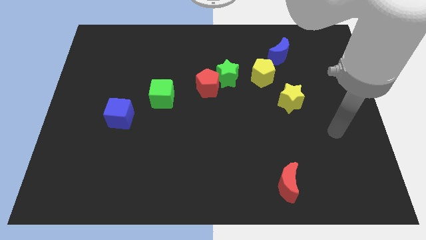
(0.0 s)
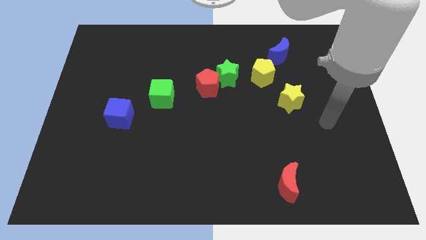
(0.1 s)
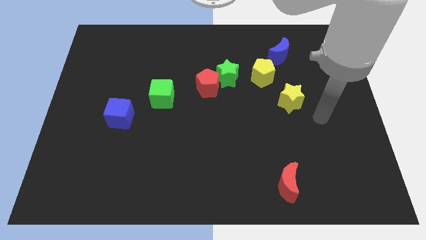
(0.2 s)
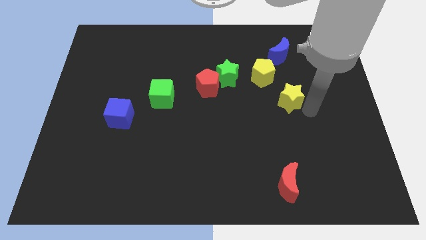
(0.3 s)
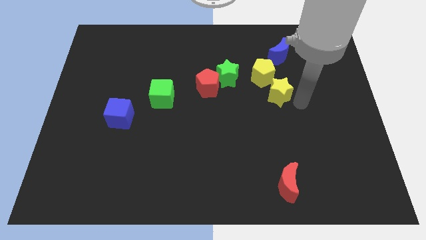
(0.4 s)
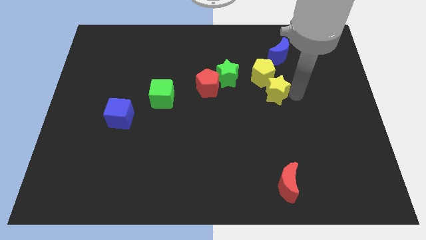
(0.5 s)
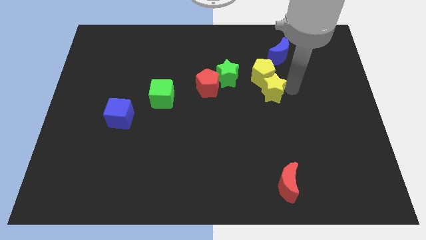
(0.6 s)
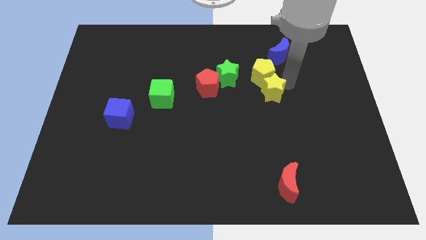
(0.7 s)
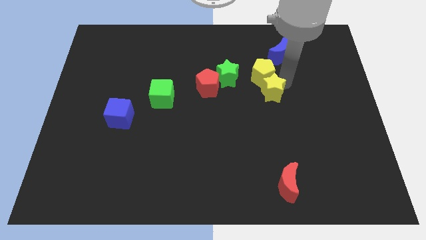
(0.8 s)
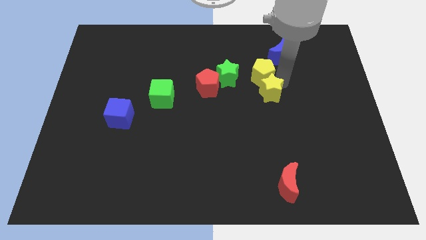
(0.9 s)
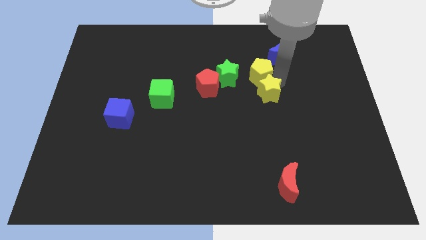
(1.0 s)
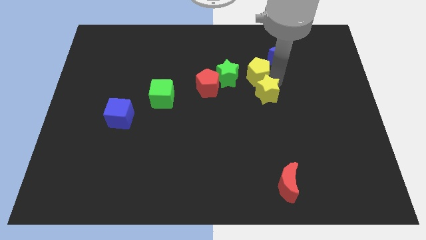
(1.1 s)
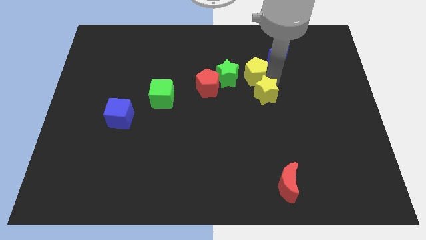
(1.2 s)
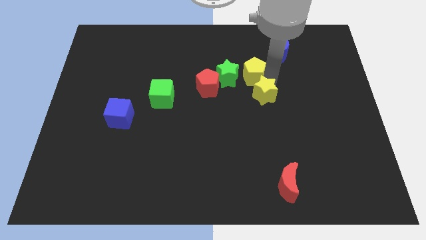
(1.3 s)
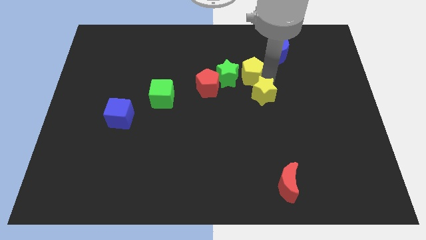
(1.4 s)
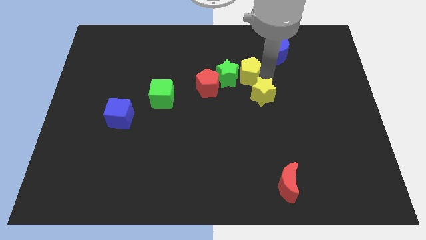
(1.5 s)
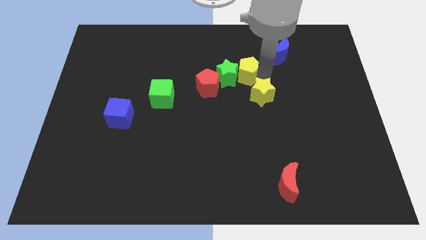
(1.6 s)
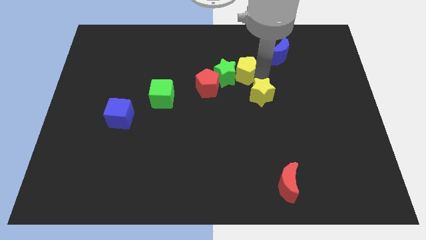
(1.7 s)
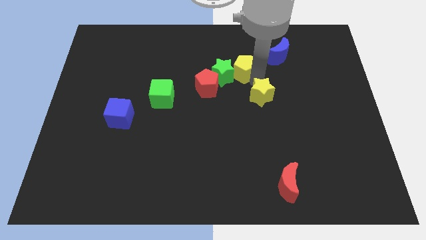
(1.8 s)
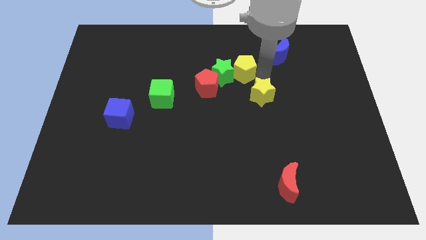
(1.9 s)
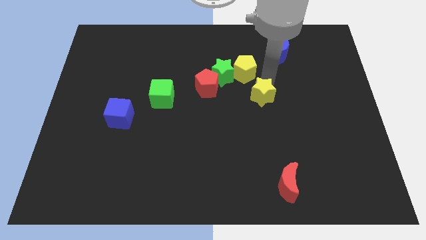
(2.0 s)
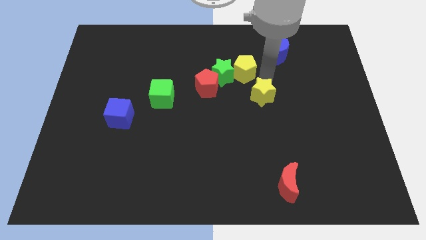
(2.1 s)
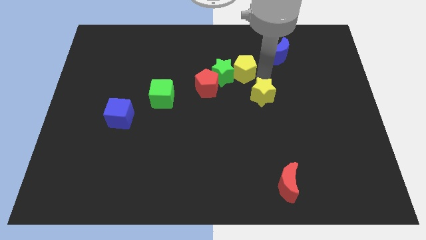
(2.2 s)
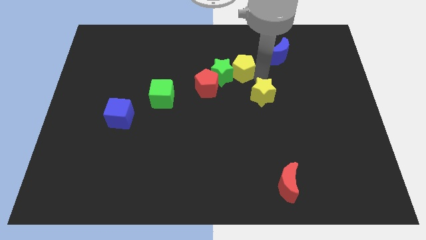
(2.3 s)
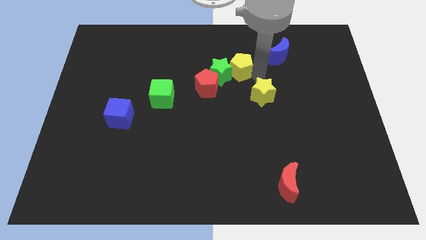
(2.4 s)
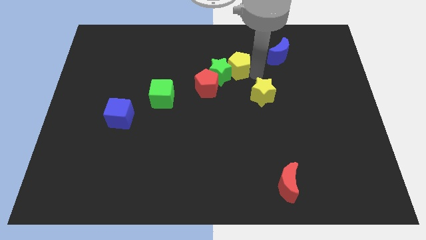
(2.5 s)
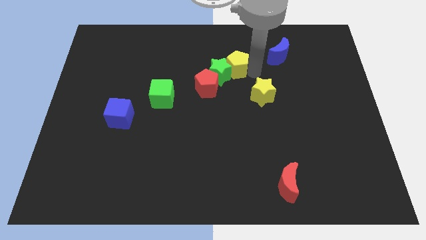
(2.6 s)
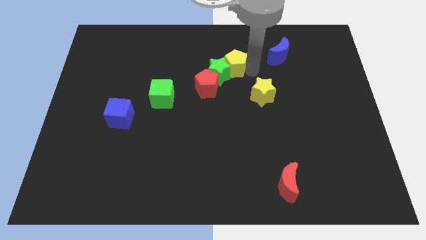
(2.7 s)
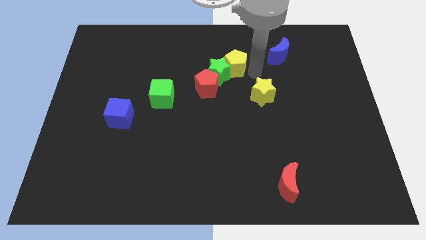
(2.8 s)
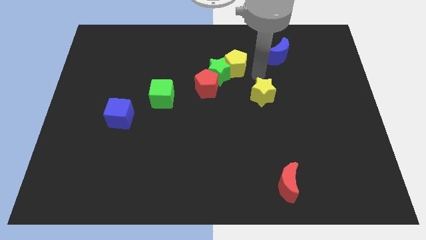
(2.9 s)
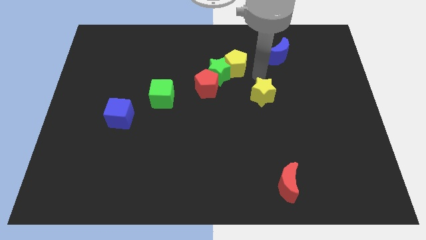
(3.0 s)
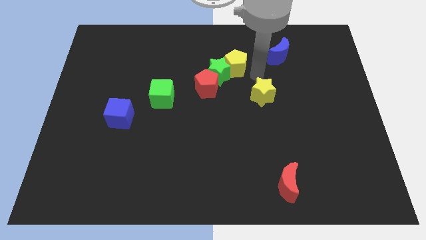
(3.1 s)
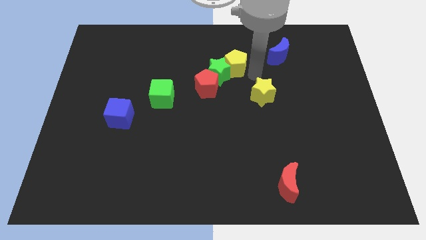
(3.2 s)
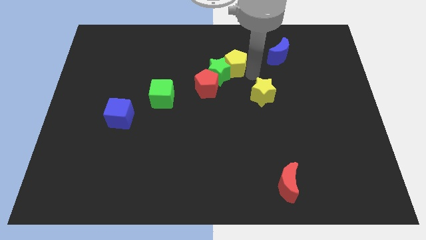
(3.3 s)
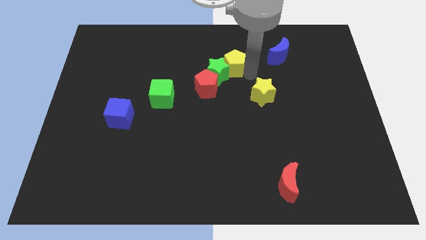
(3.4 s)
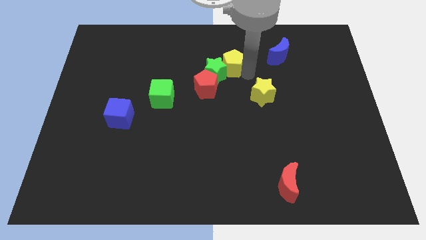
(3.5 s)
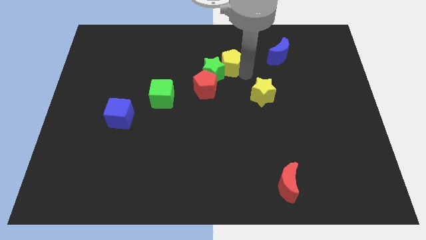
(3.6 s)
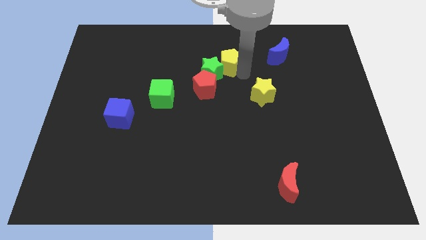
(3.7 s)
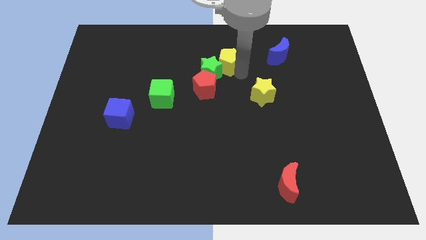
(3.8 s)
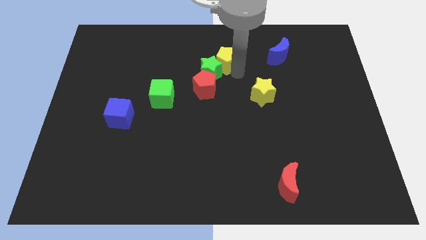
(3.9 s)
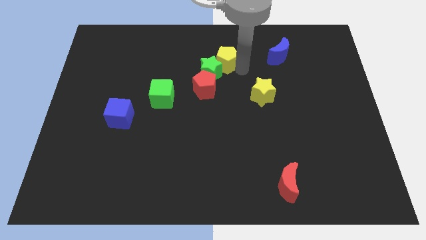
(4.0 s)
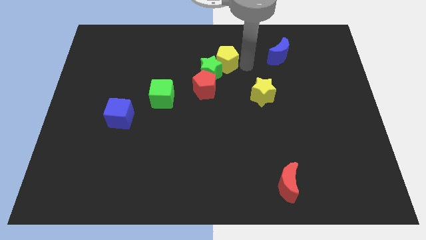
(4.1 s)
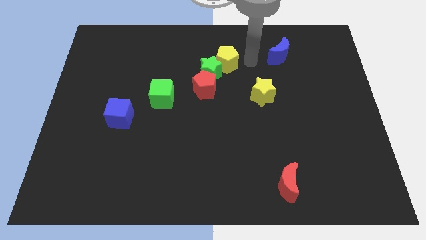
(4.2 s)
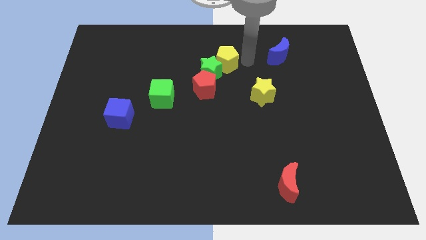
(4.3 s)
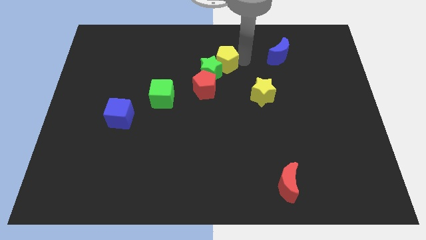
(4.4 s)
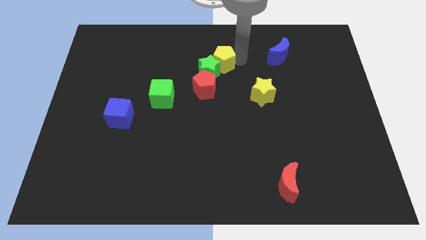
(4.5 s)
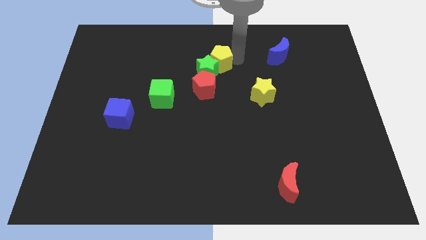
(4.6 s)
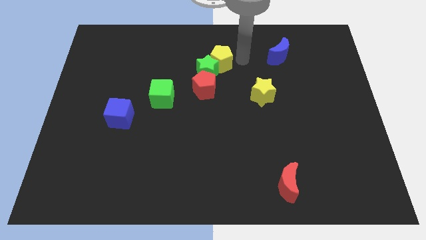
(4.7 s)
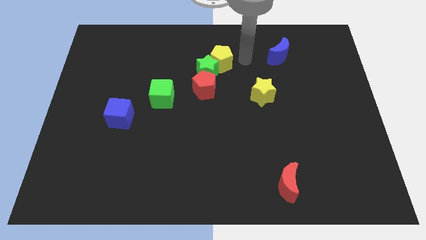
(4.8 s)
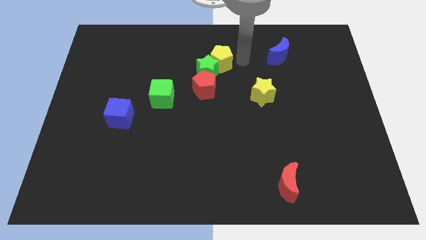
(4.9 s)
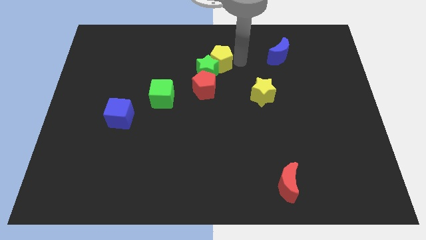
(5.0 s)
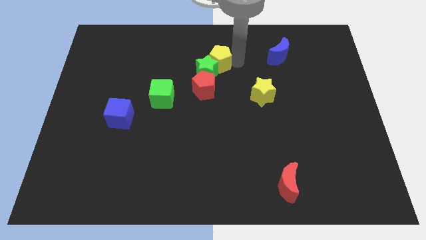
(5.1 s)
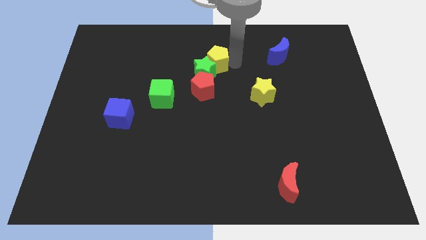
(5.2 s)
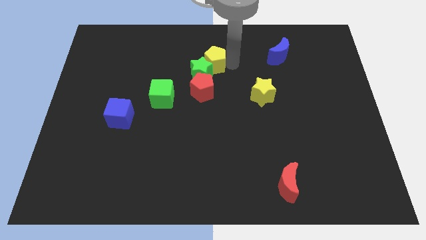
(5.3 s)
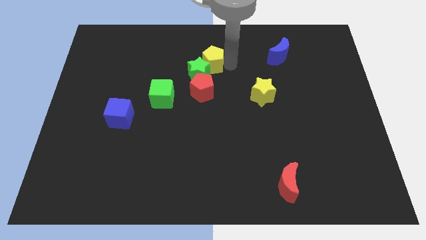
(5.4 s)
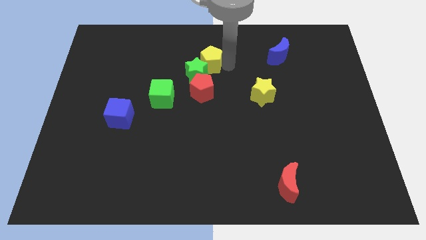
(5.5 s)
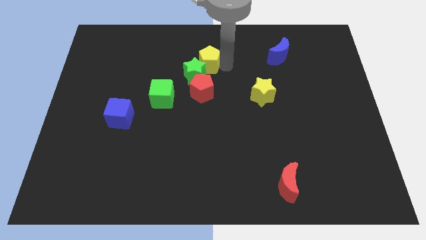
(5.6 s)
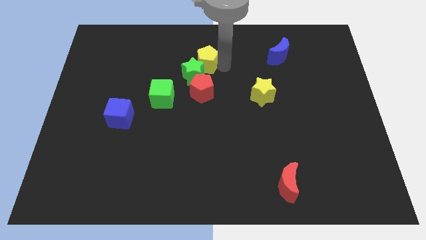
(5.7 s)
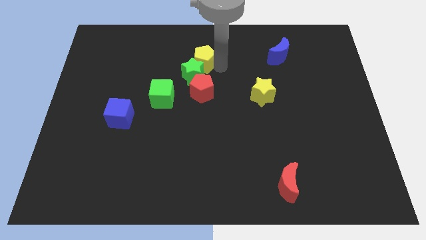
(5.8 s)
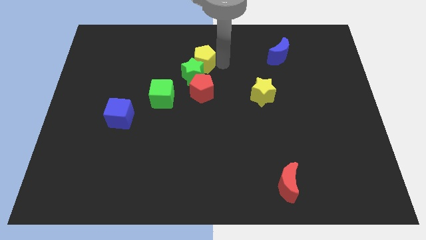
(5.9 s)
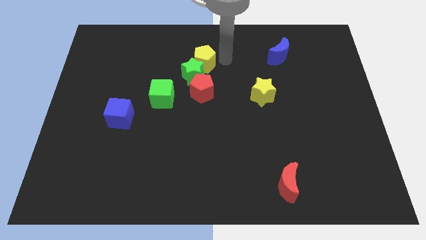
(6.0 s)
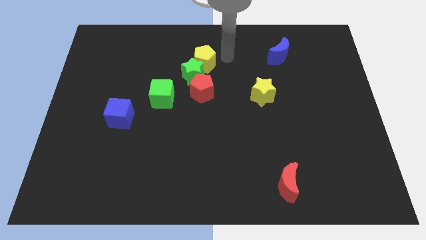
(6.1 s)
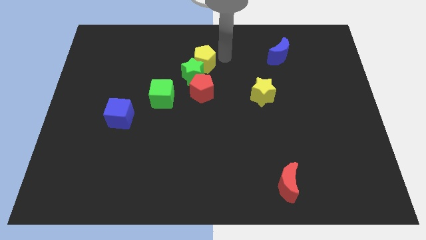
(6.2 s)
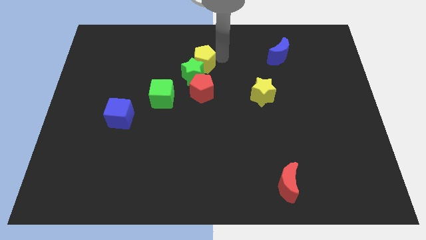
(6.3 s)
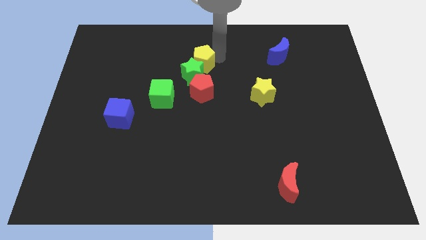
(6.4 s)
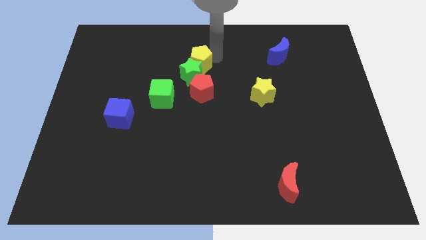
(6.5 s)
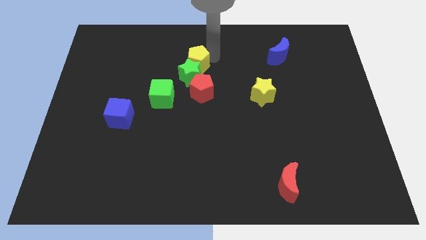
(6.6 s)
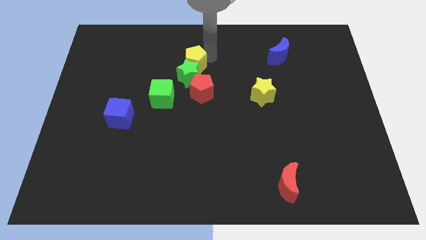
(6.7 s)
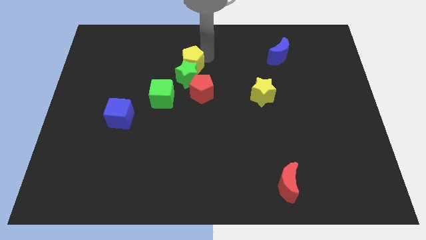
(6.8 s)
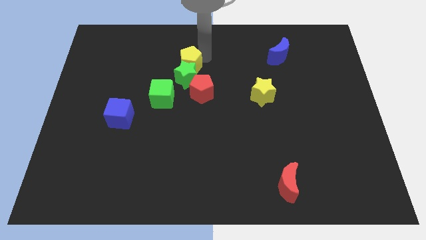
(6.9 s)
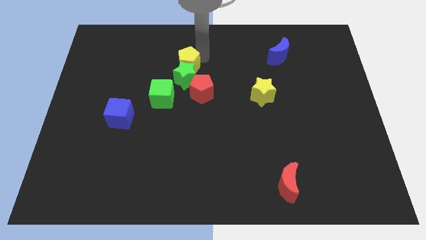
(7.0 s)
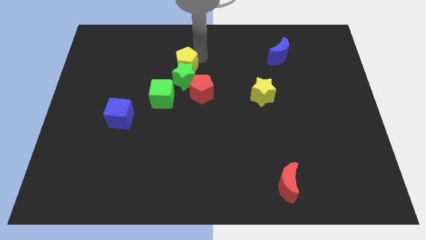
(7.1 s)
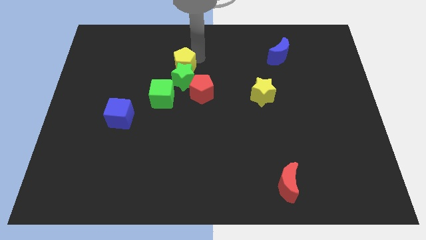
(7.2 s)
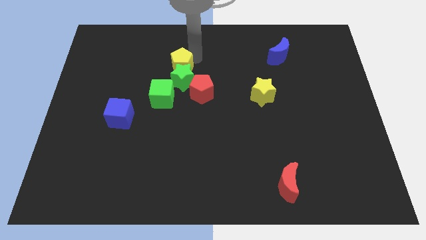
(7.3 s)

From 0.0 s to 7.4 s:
push the yellow pentagon left

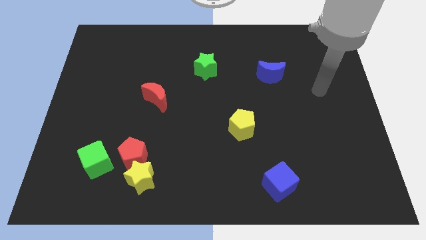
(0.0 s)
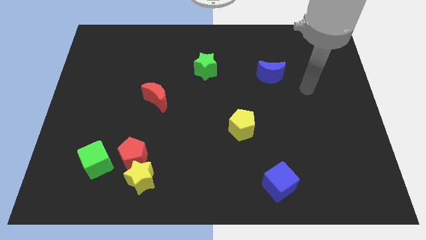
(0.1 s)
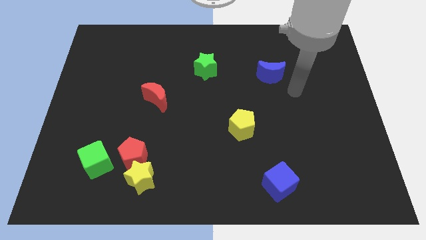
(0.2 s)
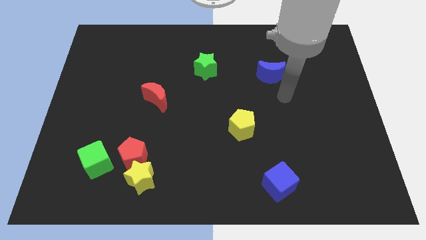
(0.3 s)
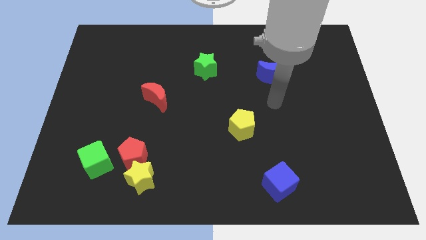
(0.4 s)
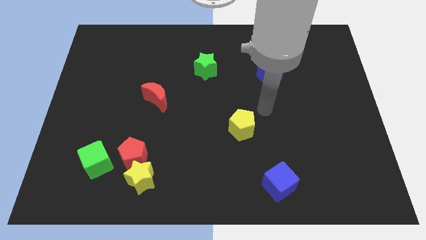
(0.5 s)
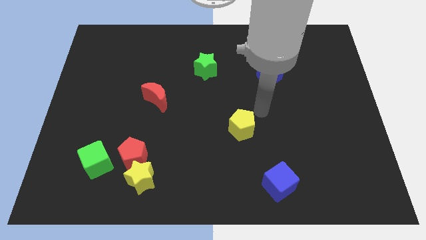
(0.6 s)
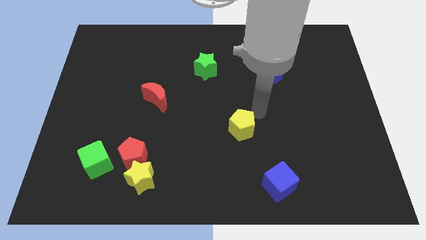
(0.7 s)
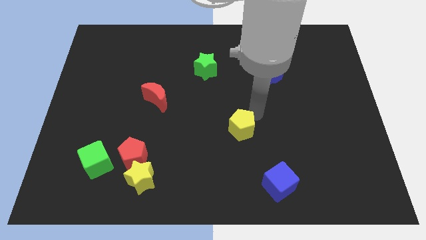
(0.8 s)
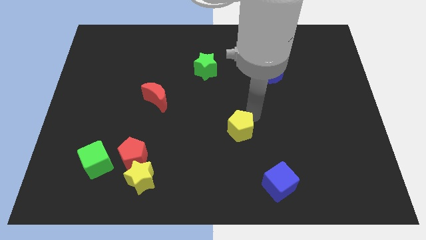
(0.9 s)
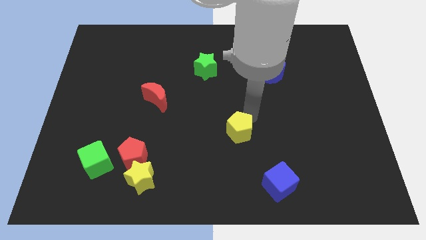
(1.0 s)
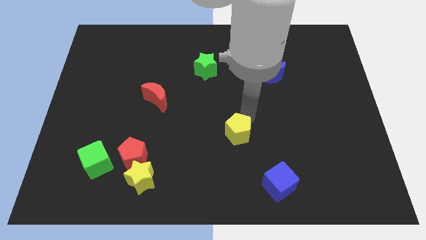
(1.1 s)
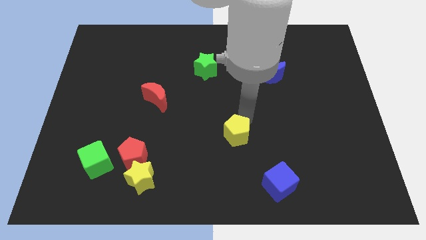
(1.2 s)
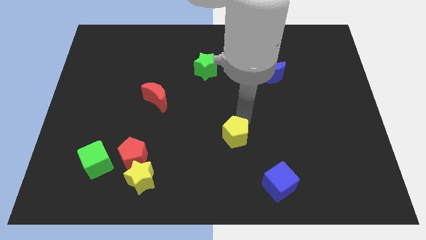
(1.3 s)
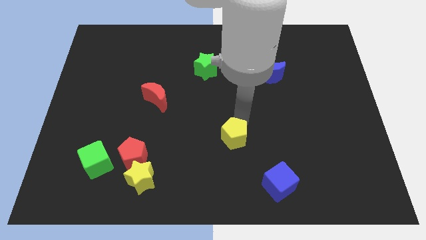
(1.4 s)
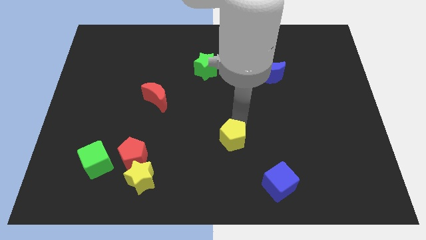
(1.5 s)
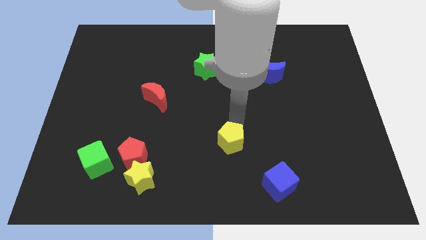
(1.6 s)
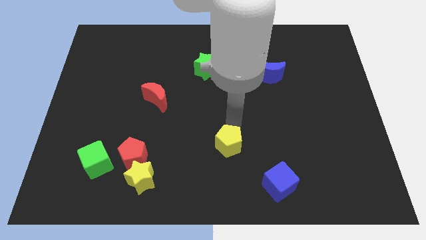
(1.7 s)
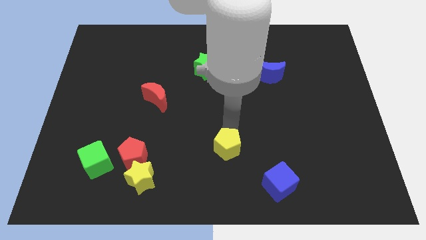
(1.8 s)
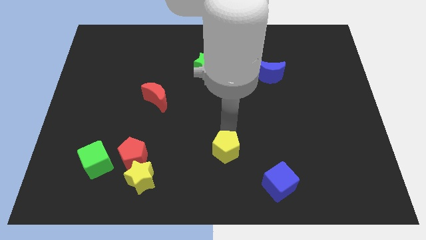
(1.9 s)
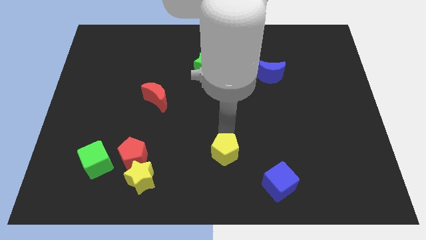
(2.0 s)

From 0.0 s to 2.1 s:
slightly move the yellow pentagon downwards and left diagonally
